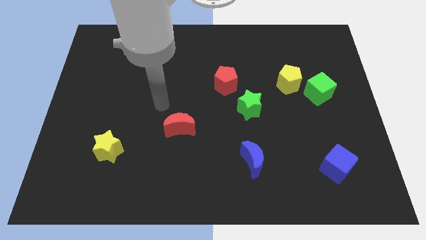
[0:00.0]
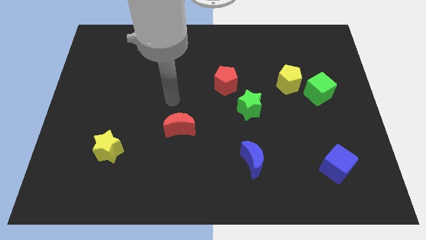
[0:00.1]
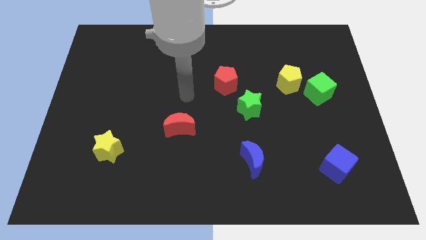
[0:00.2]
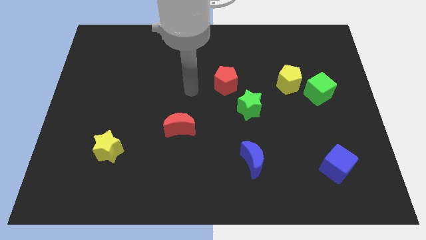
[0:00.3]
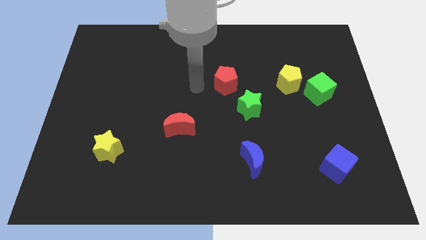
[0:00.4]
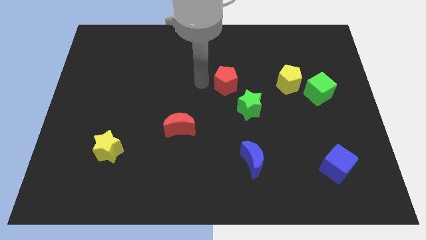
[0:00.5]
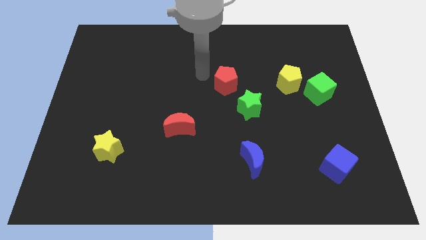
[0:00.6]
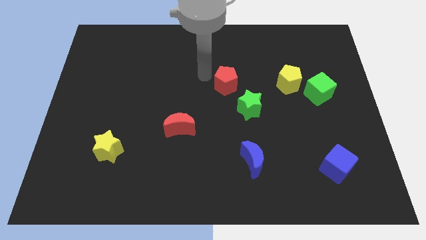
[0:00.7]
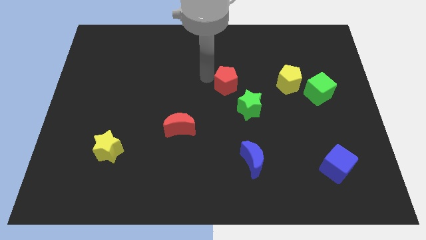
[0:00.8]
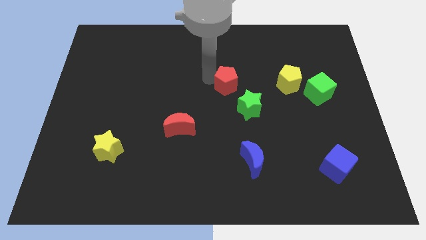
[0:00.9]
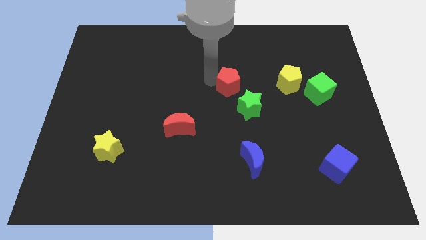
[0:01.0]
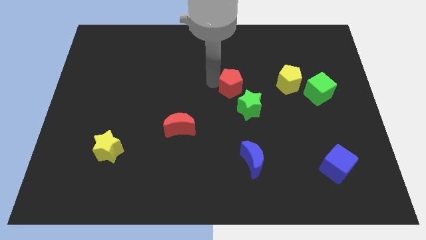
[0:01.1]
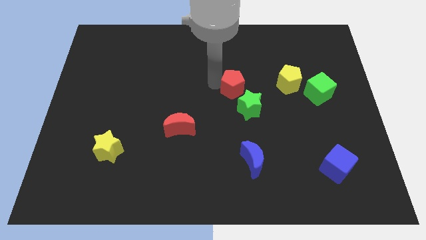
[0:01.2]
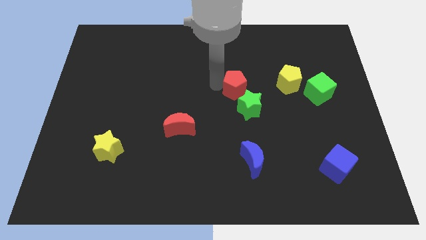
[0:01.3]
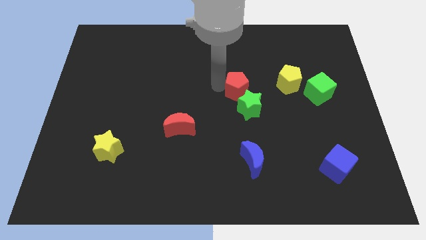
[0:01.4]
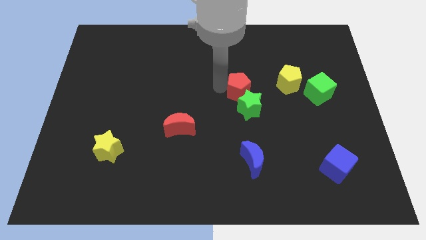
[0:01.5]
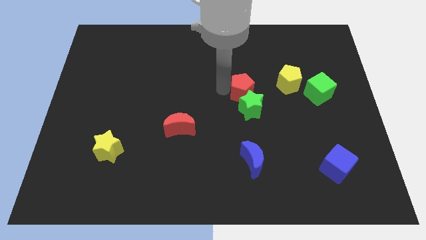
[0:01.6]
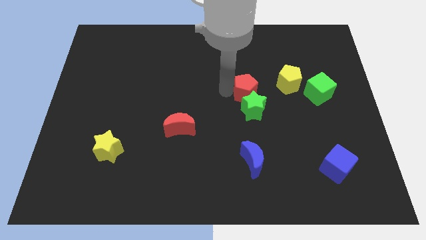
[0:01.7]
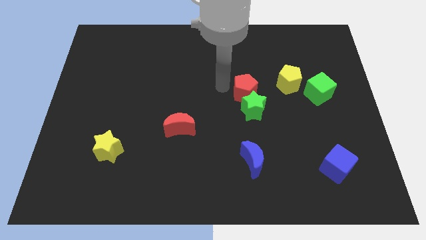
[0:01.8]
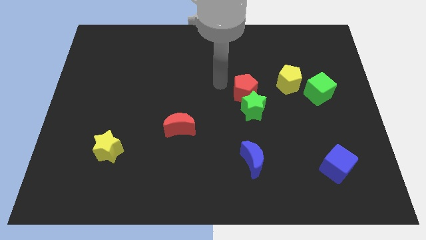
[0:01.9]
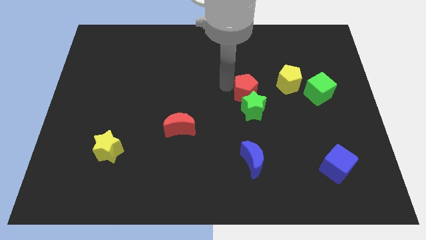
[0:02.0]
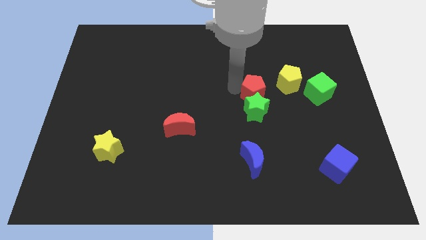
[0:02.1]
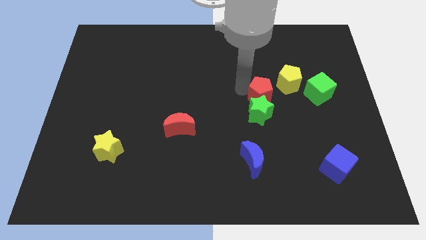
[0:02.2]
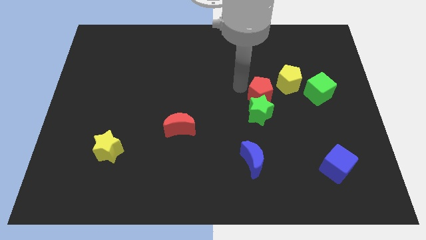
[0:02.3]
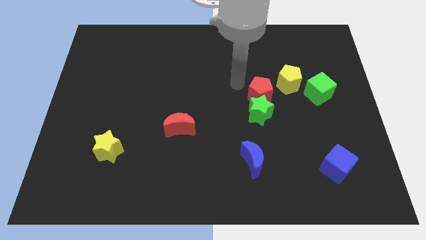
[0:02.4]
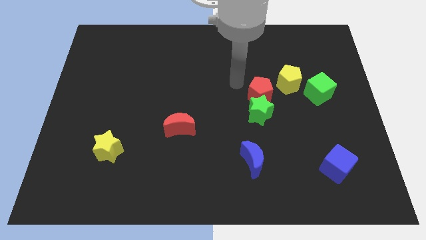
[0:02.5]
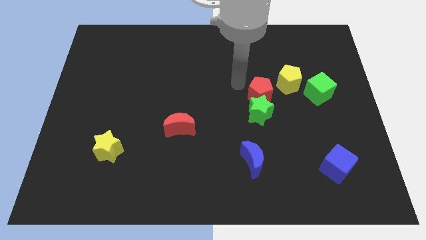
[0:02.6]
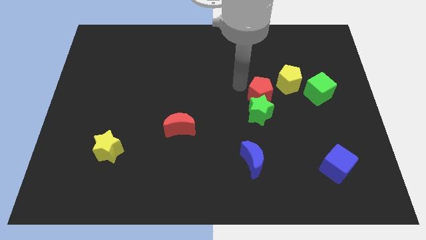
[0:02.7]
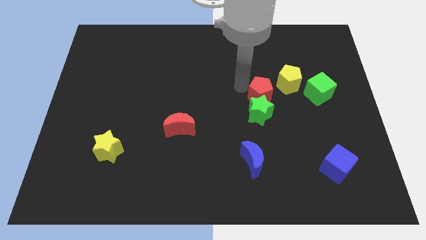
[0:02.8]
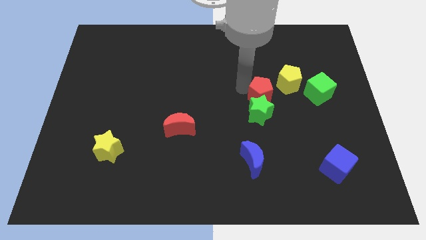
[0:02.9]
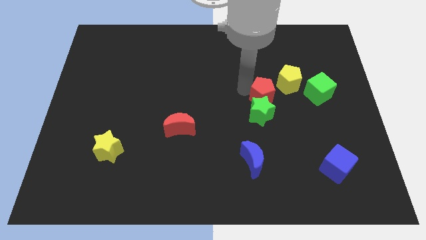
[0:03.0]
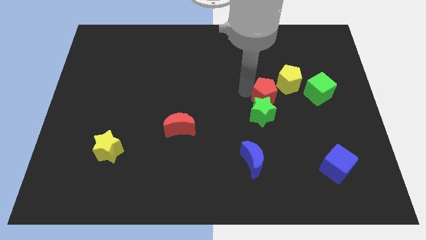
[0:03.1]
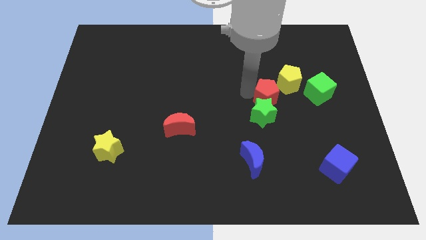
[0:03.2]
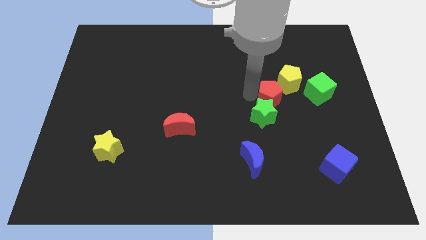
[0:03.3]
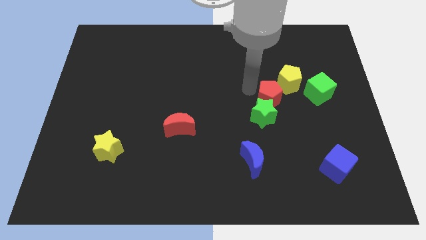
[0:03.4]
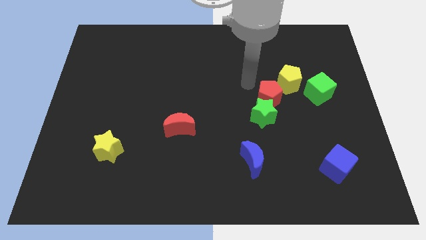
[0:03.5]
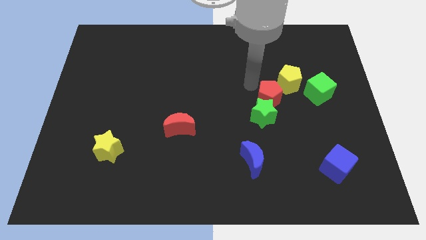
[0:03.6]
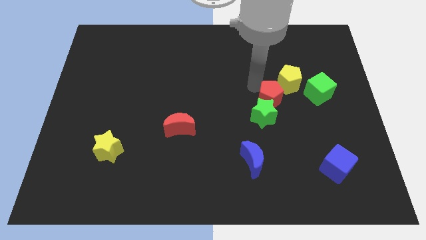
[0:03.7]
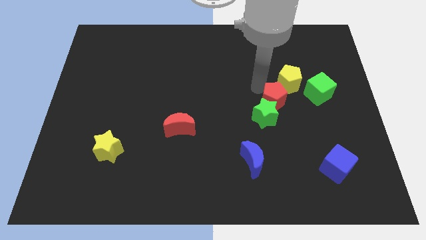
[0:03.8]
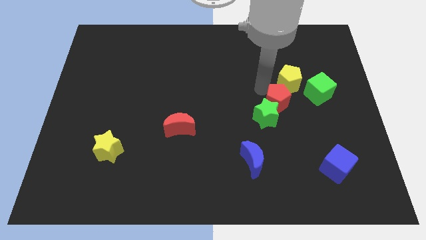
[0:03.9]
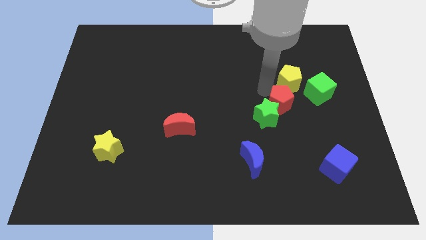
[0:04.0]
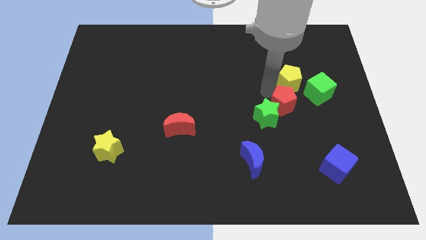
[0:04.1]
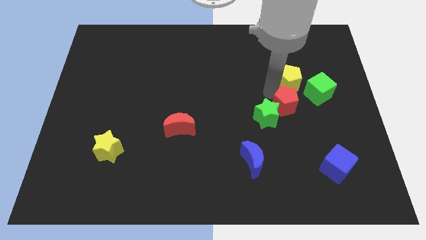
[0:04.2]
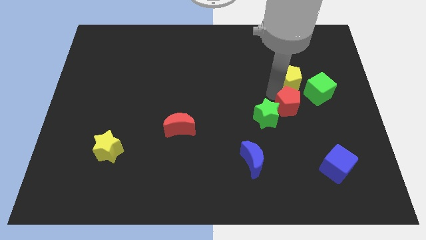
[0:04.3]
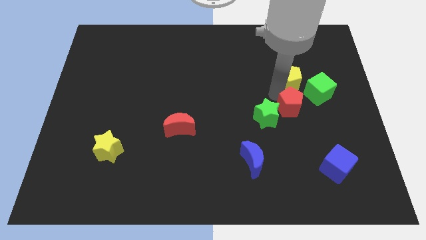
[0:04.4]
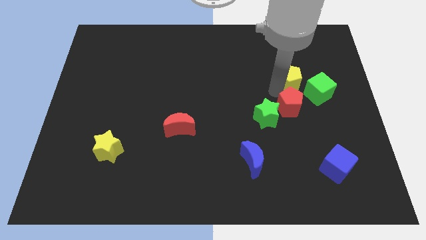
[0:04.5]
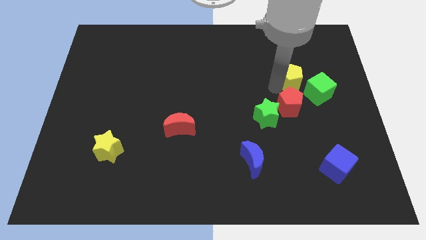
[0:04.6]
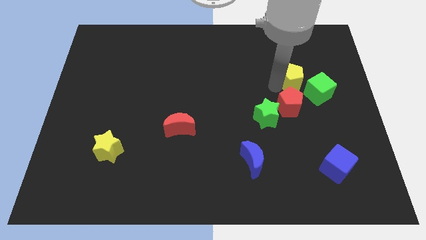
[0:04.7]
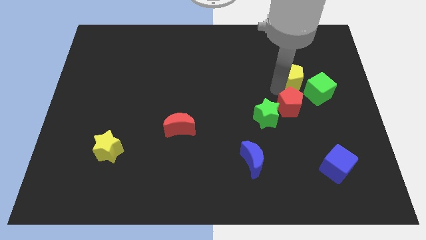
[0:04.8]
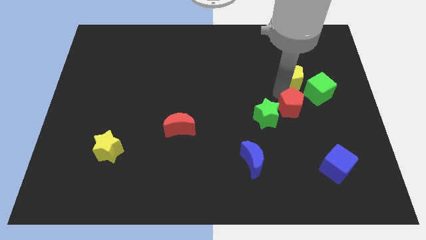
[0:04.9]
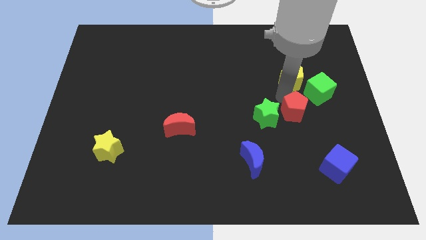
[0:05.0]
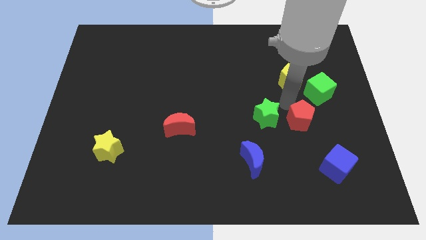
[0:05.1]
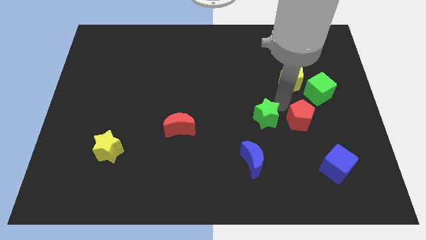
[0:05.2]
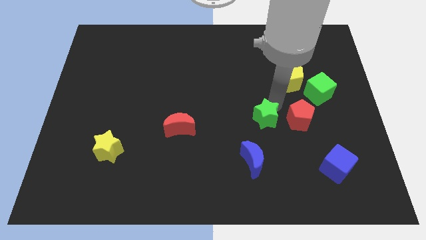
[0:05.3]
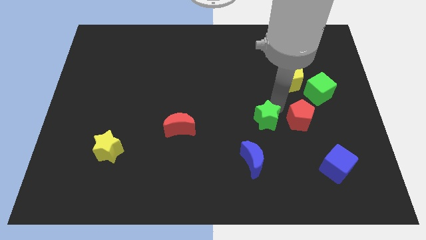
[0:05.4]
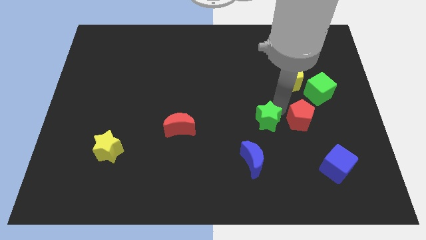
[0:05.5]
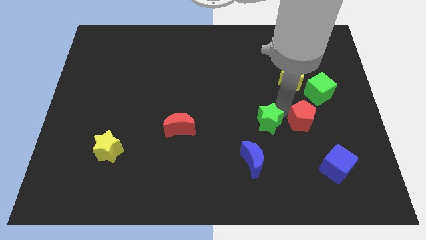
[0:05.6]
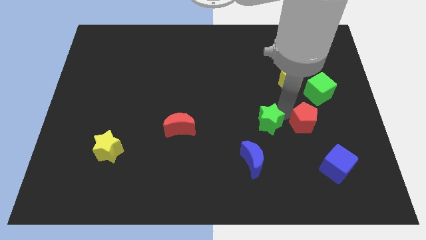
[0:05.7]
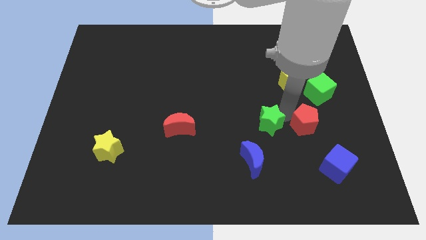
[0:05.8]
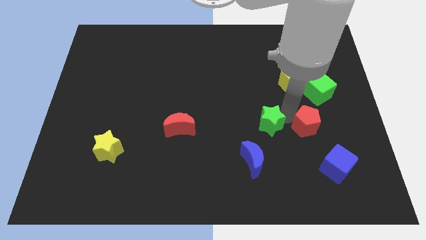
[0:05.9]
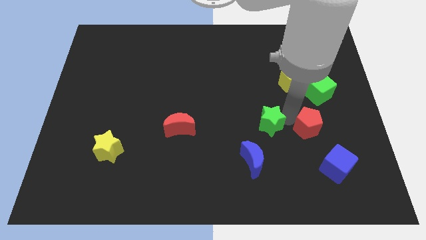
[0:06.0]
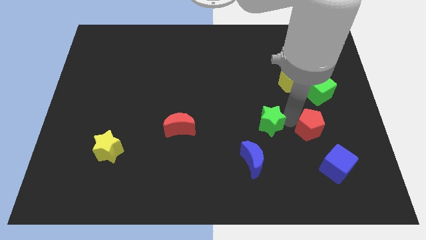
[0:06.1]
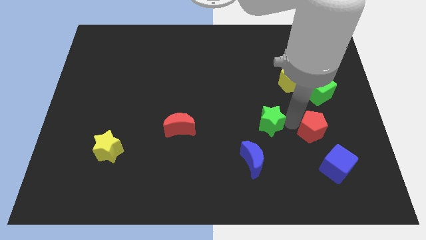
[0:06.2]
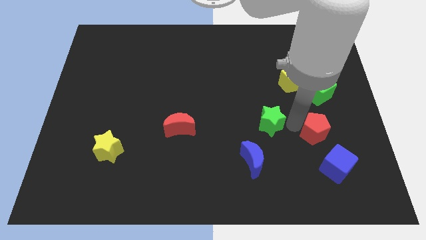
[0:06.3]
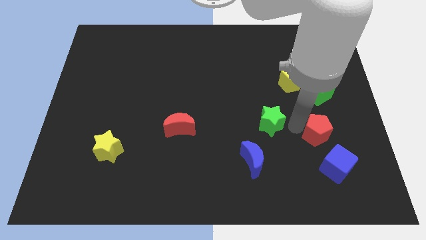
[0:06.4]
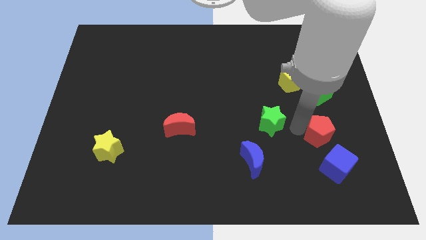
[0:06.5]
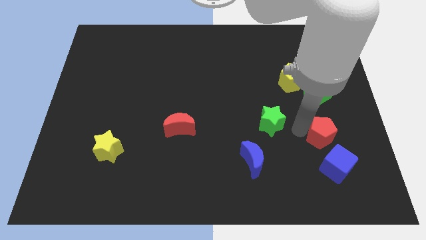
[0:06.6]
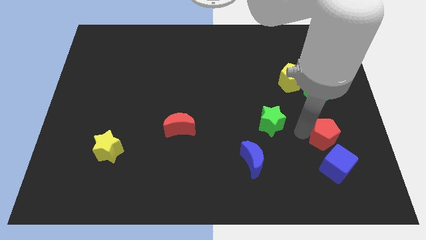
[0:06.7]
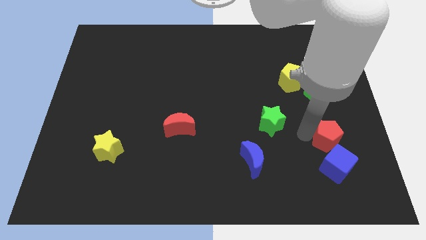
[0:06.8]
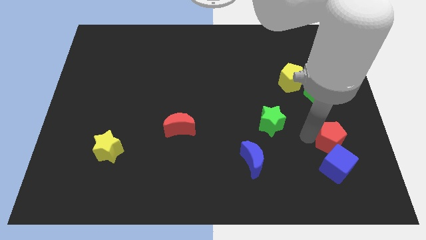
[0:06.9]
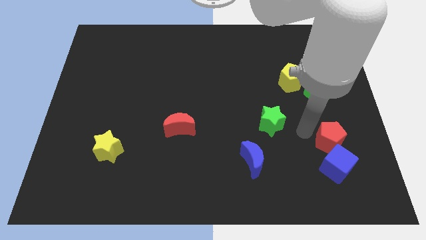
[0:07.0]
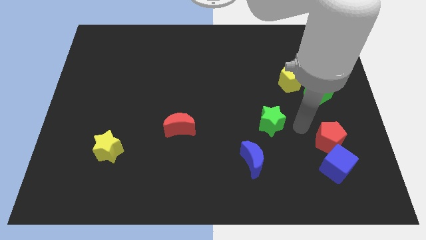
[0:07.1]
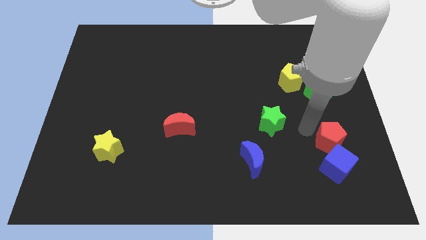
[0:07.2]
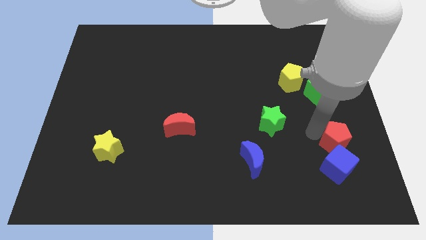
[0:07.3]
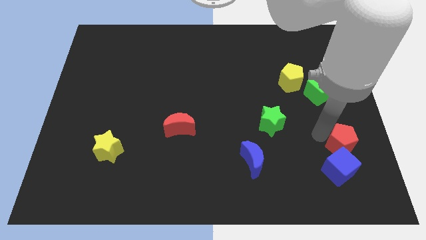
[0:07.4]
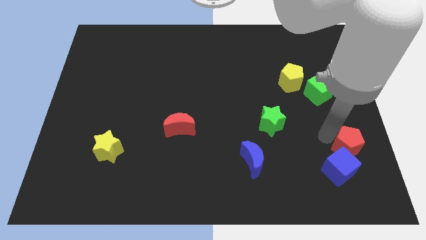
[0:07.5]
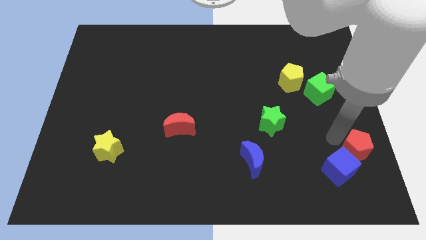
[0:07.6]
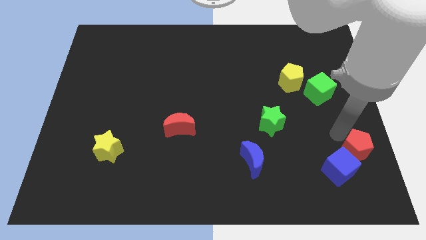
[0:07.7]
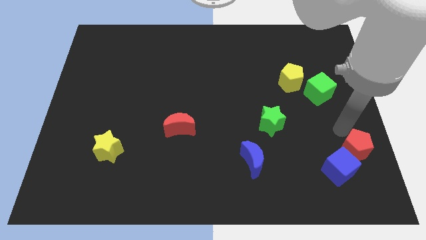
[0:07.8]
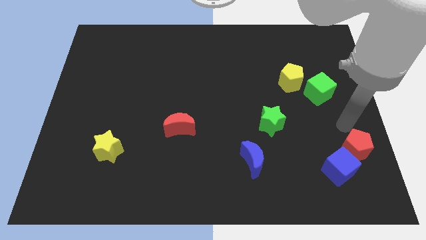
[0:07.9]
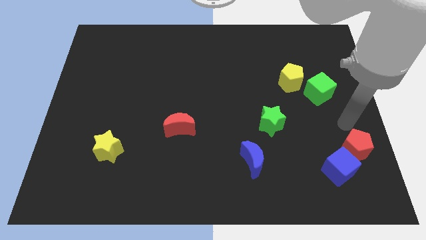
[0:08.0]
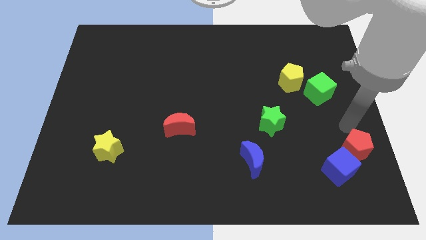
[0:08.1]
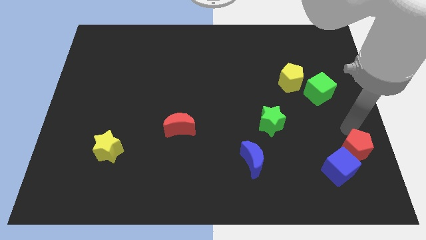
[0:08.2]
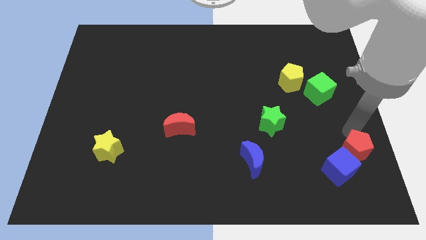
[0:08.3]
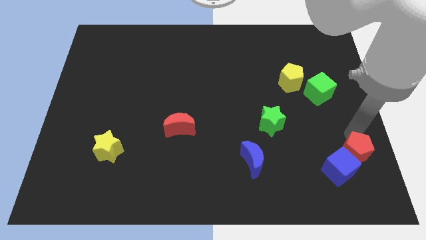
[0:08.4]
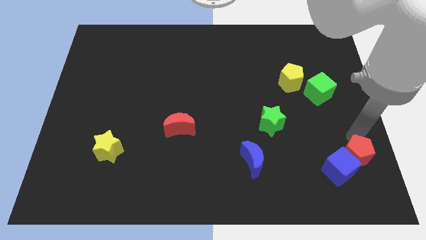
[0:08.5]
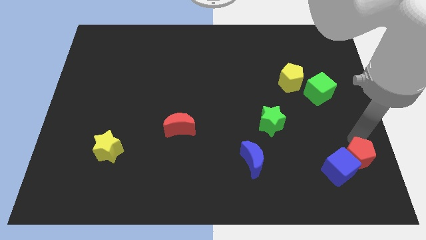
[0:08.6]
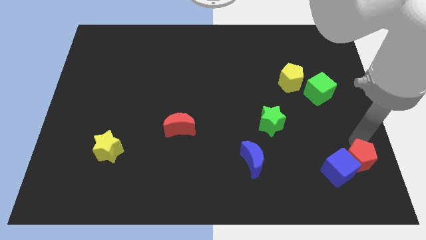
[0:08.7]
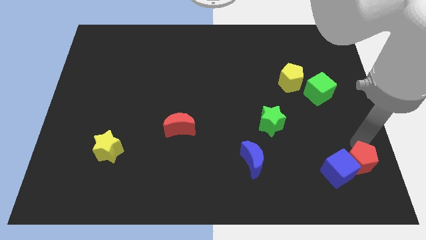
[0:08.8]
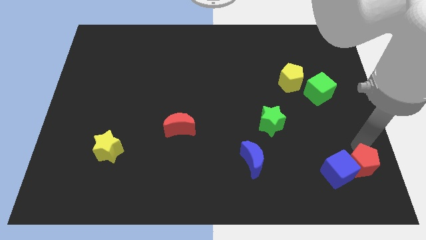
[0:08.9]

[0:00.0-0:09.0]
push the red pentagon to the lower right corner
